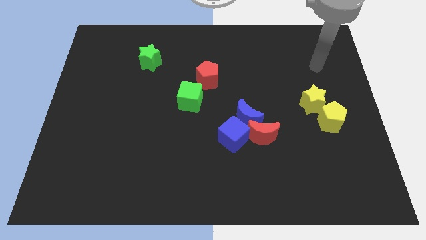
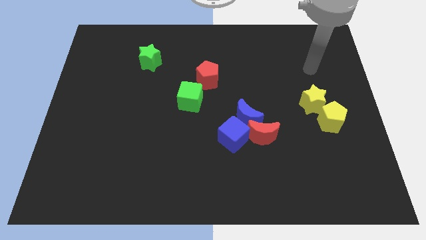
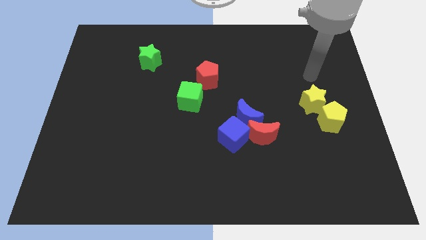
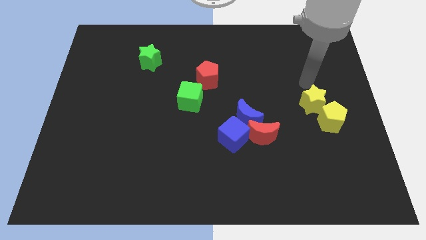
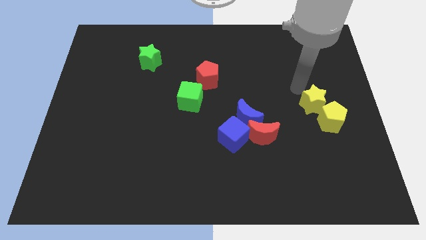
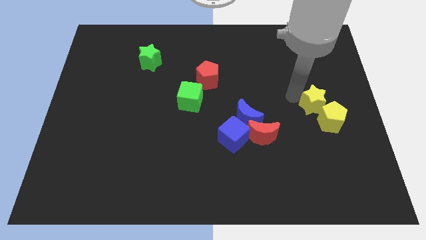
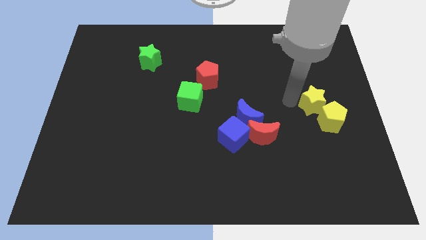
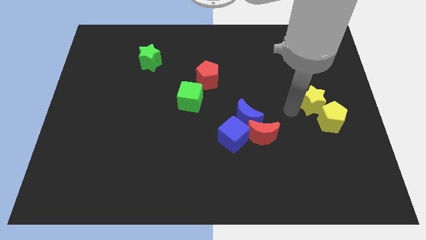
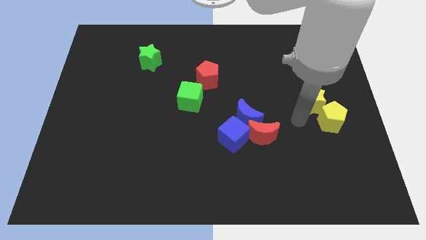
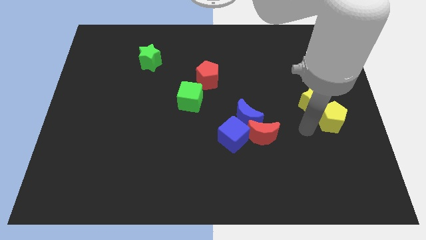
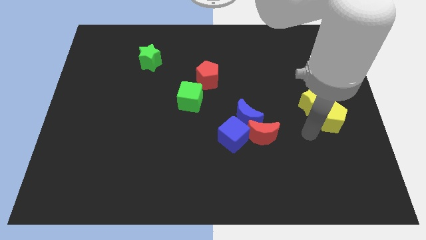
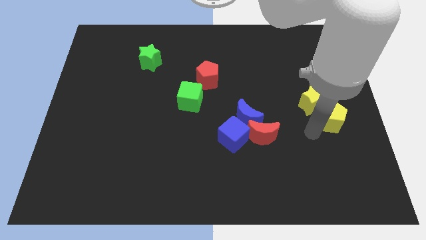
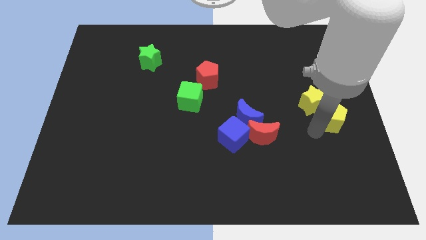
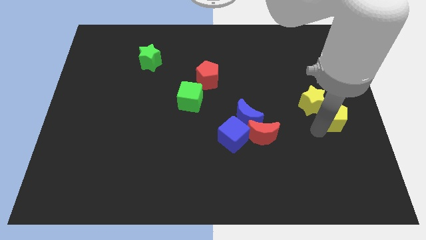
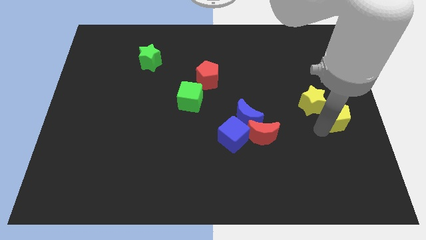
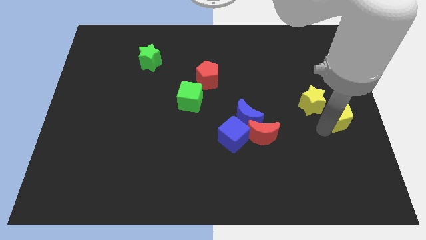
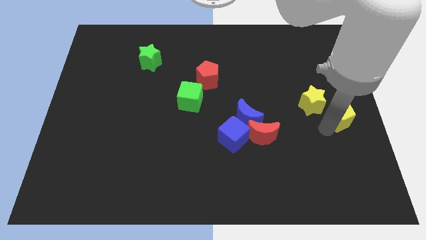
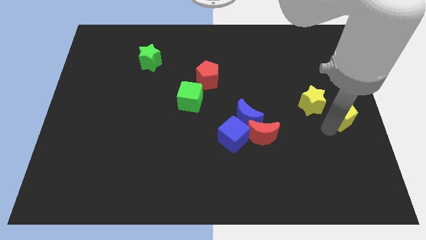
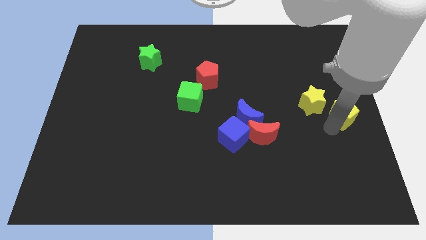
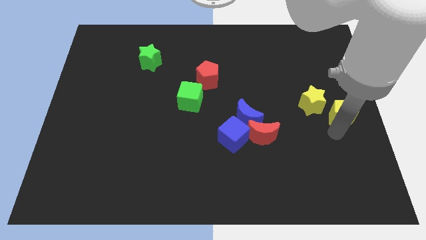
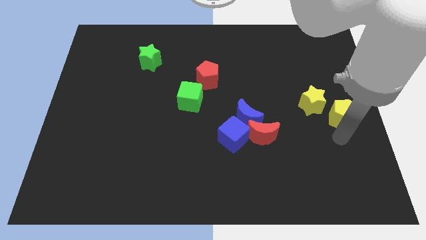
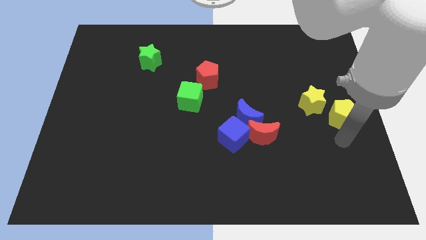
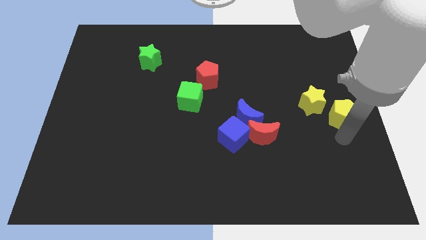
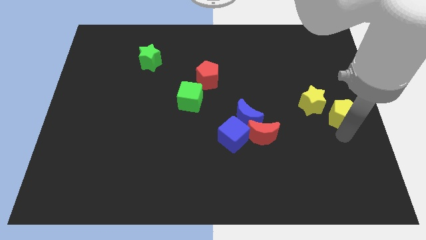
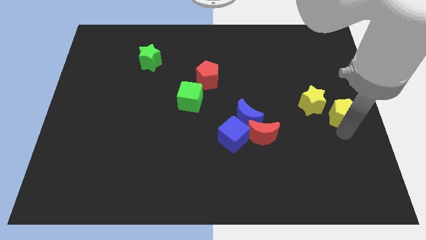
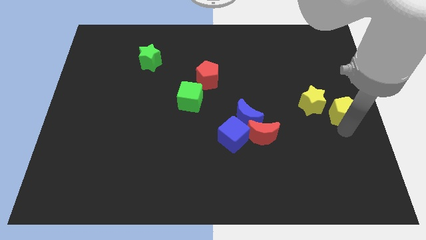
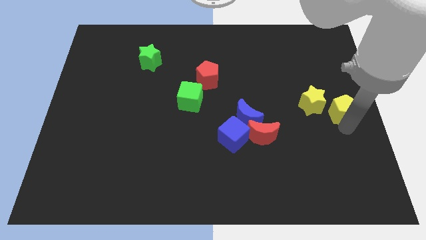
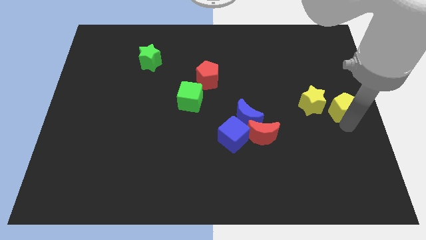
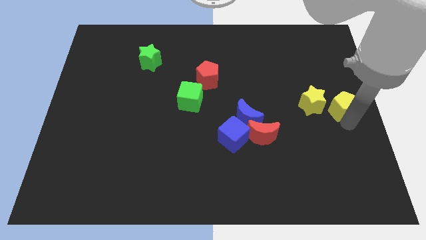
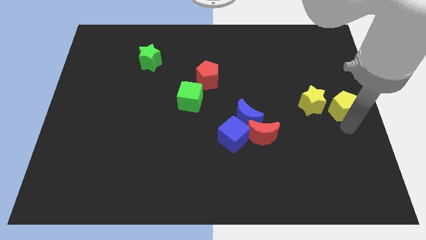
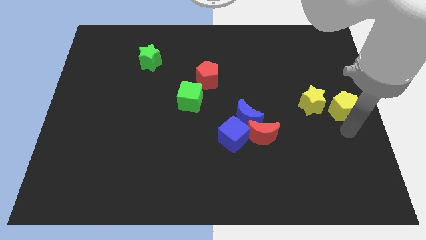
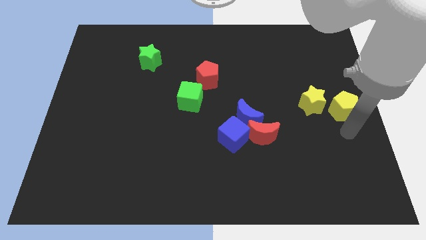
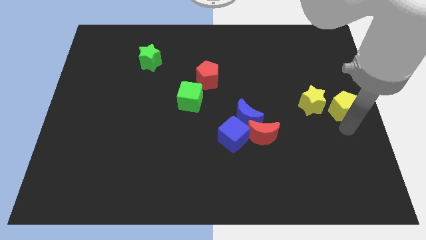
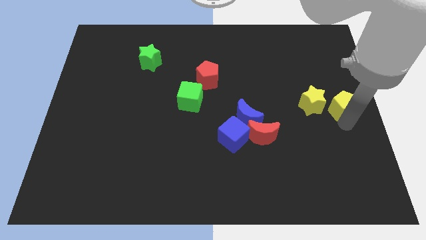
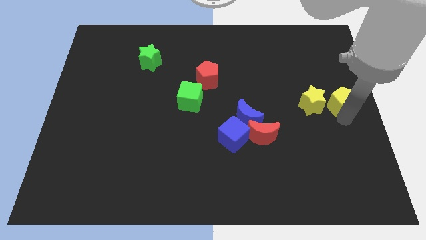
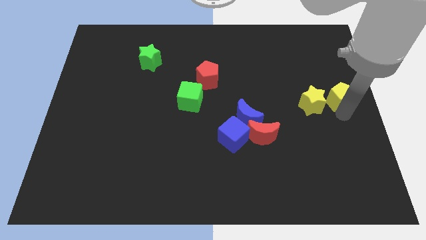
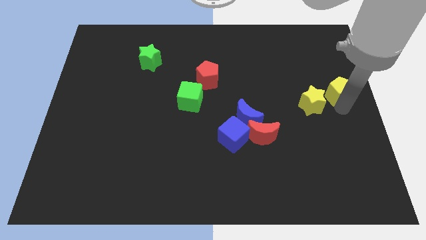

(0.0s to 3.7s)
slightly slide the yellow pentagon up

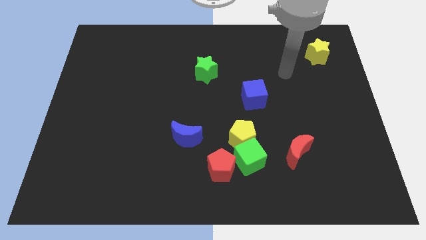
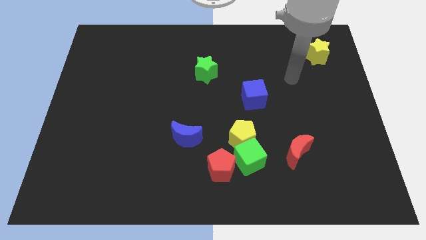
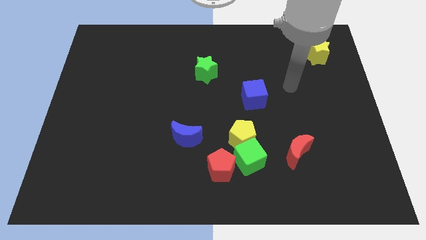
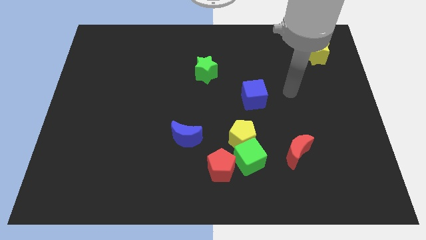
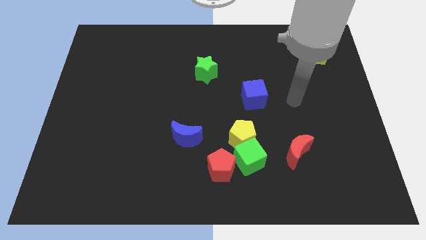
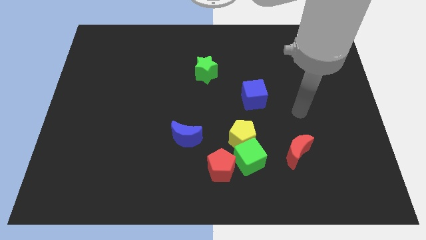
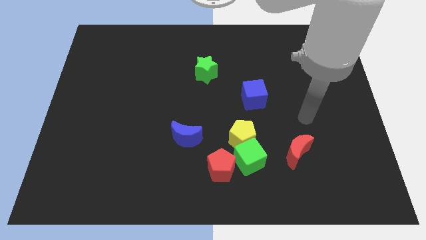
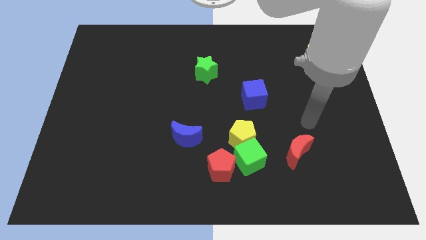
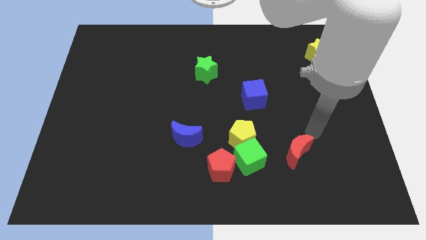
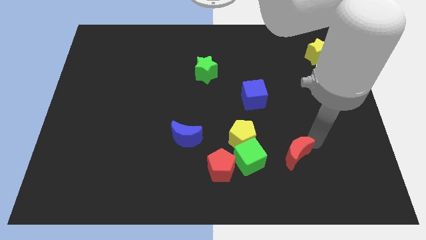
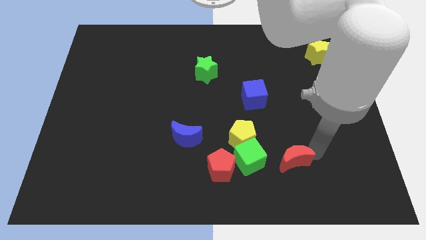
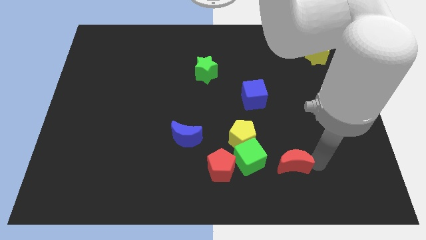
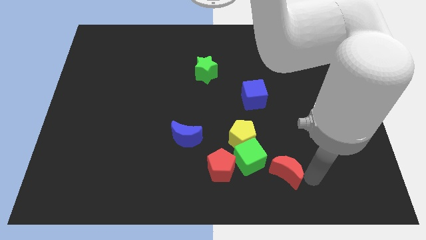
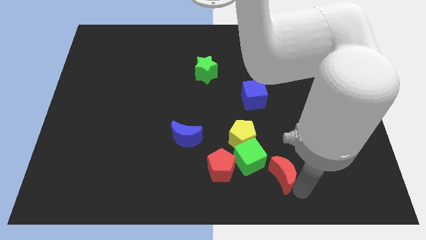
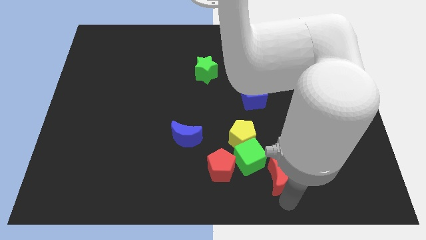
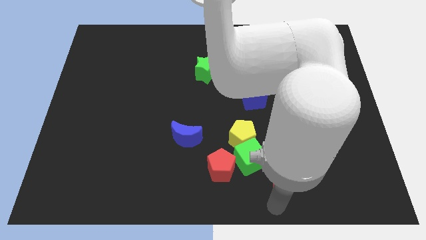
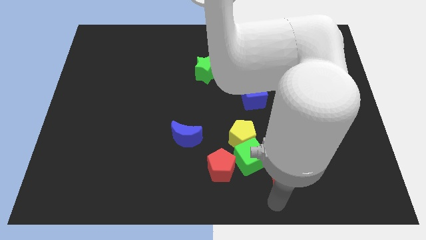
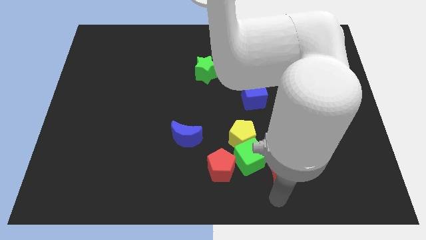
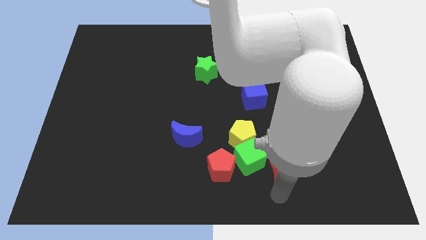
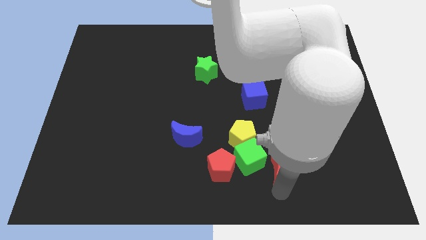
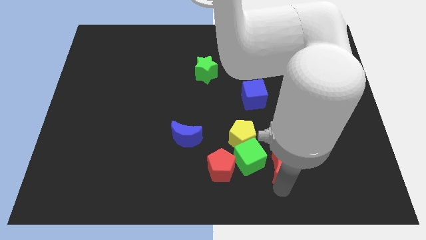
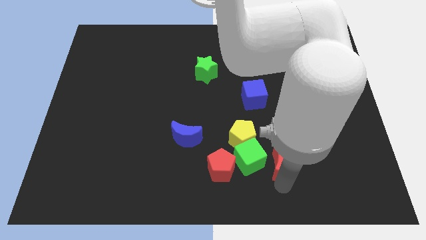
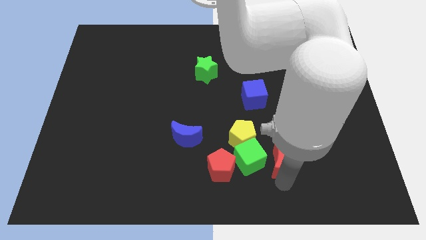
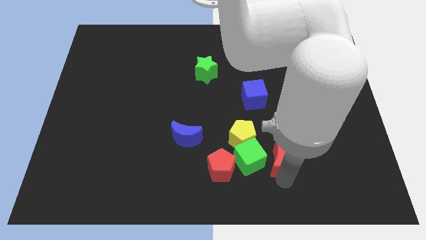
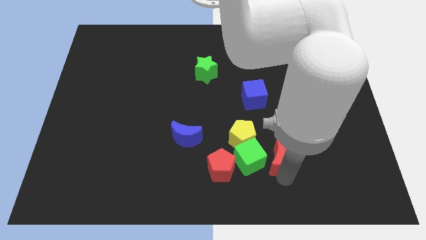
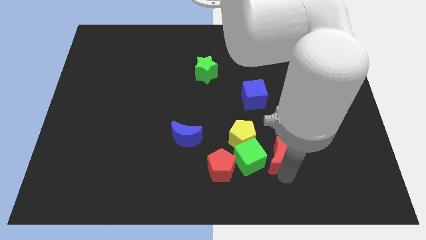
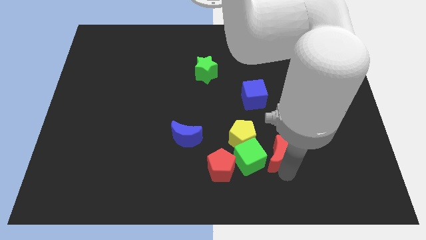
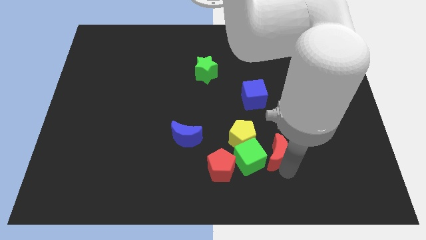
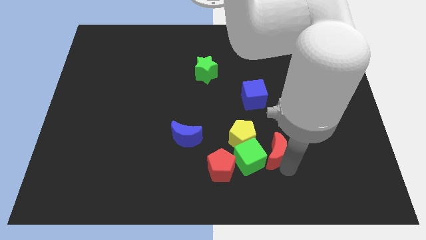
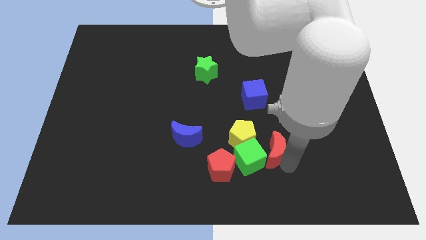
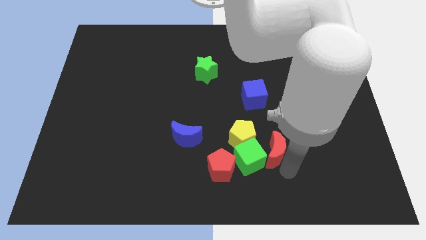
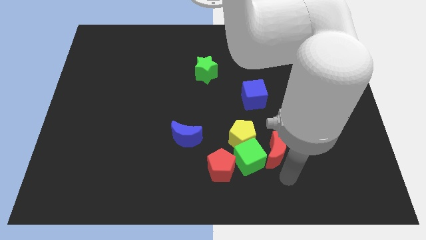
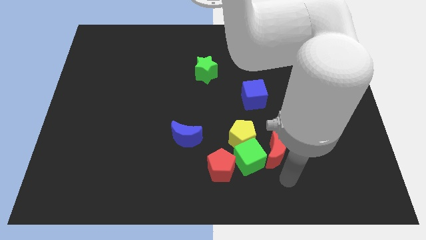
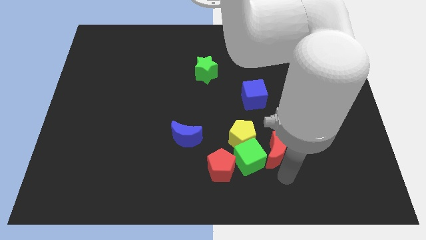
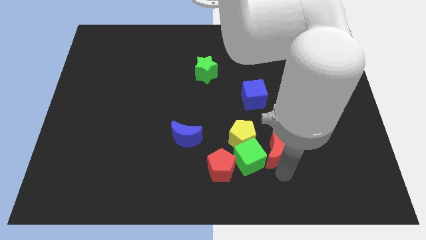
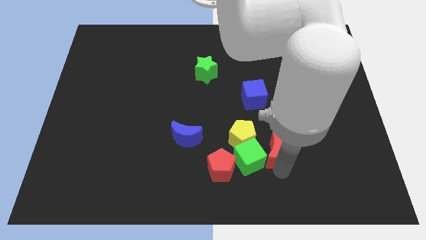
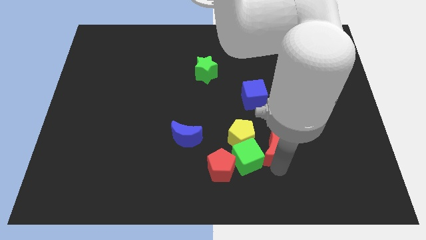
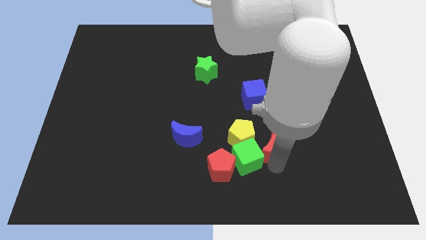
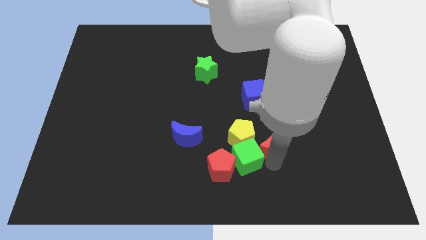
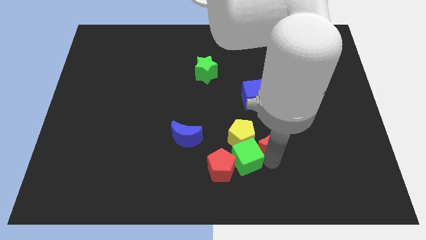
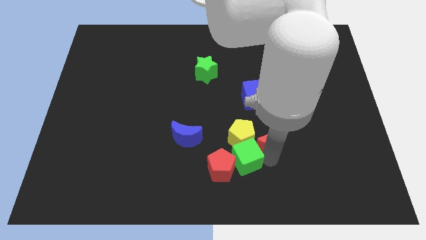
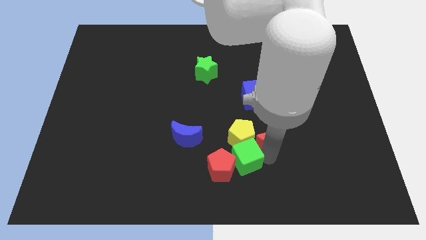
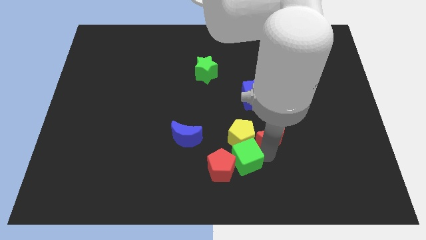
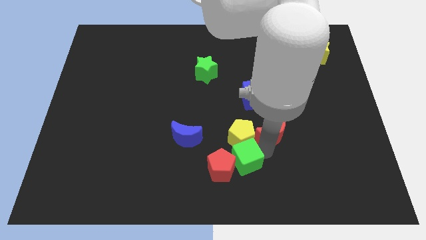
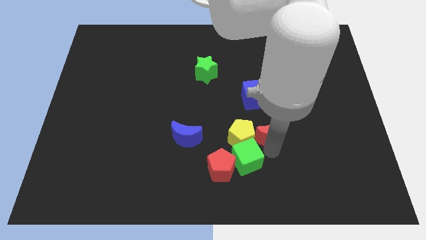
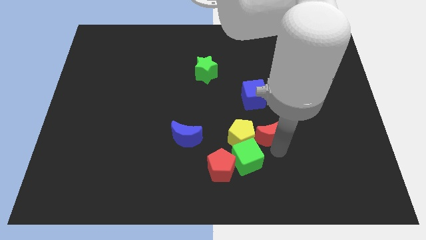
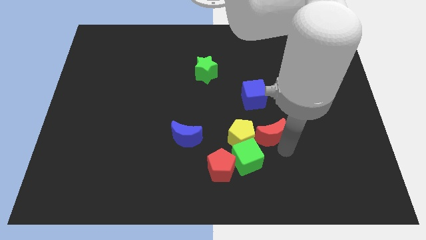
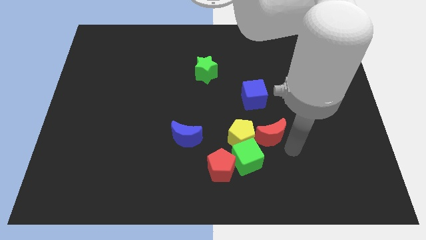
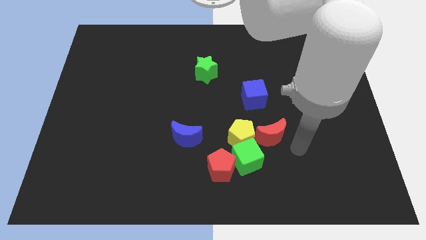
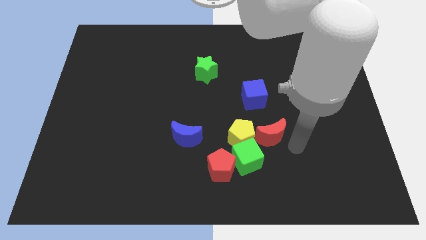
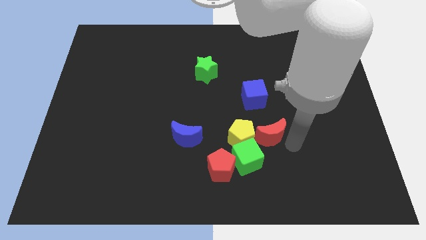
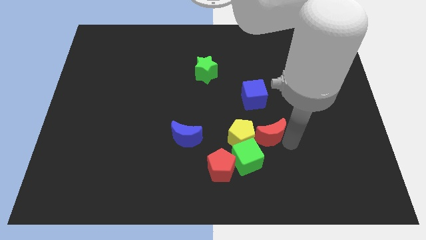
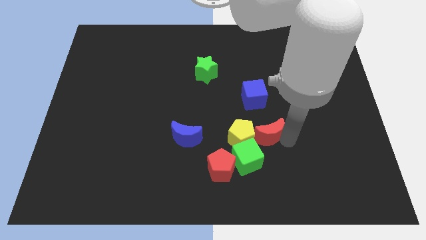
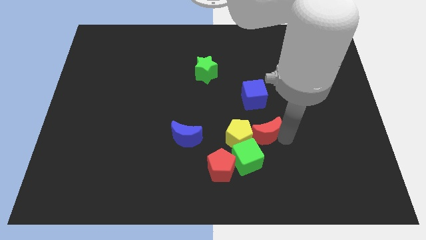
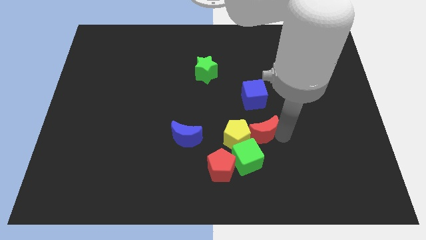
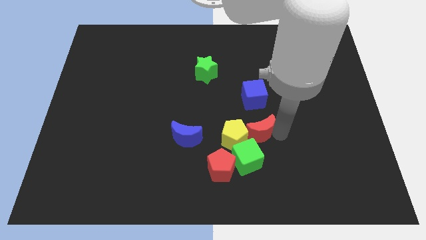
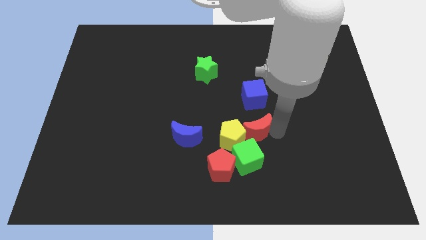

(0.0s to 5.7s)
push the red moon left a little
